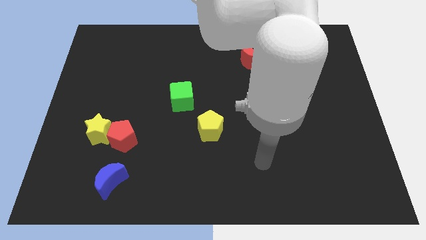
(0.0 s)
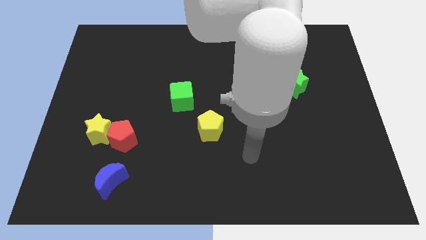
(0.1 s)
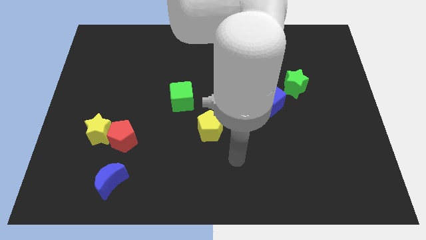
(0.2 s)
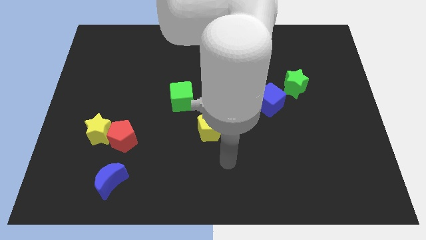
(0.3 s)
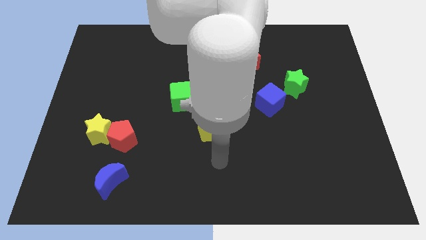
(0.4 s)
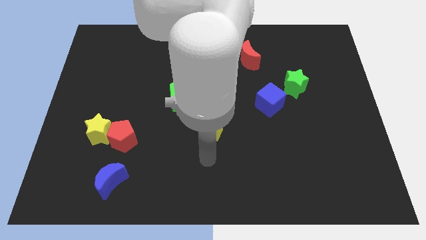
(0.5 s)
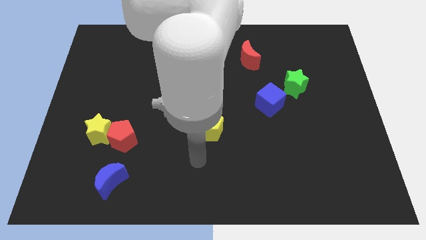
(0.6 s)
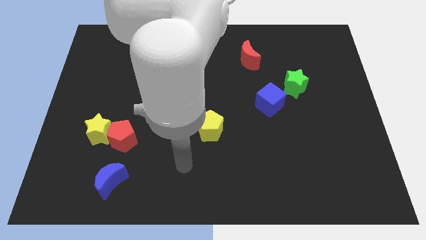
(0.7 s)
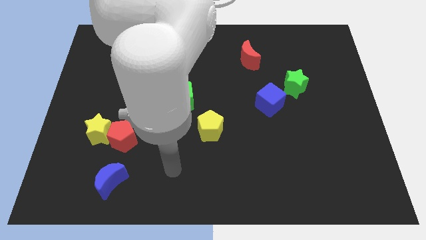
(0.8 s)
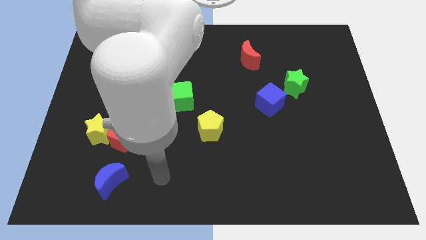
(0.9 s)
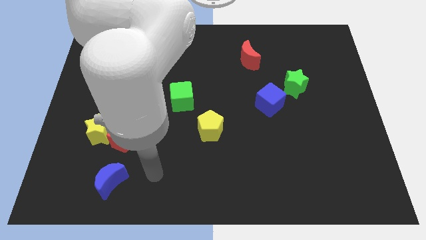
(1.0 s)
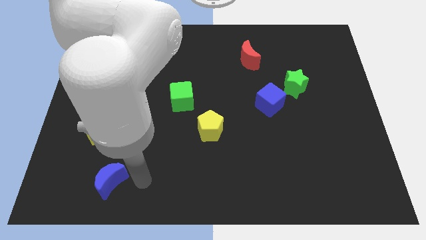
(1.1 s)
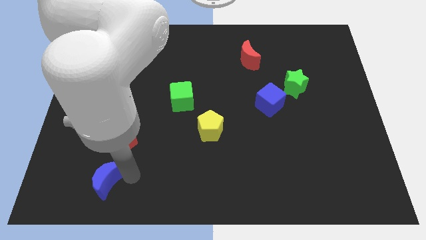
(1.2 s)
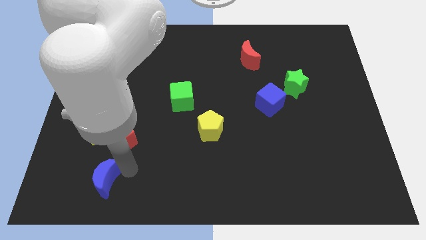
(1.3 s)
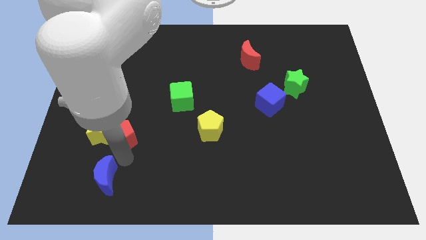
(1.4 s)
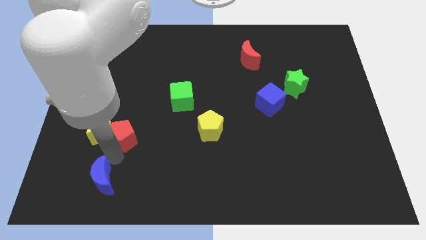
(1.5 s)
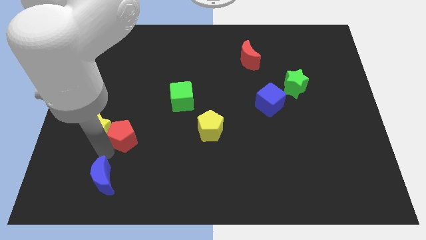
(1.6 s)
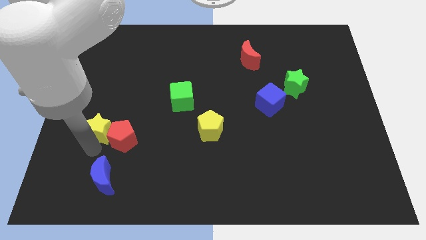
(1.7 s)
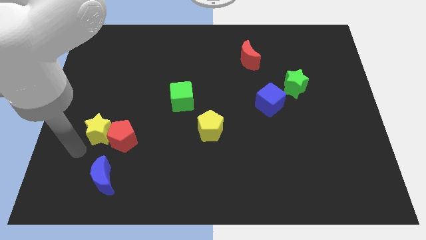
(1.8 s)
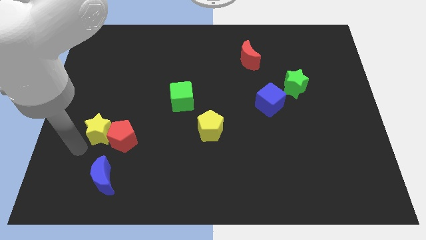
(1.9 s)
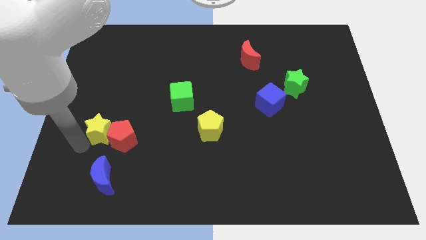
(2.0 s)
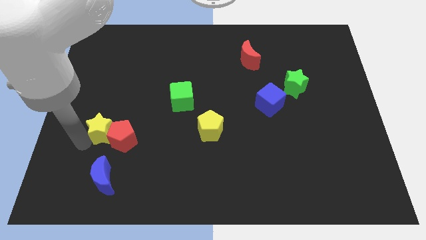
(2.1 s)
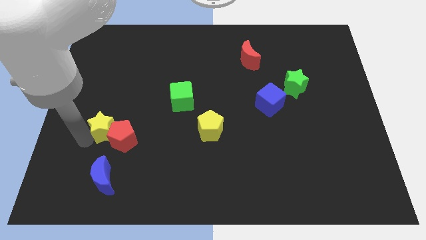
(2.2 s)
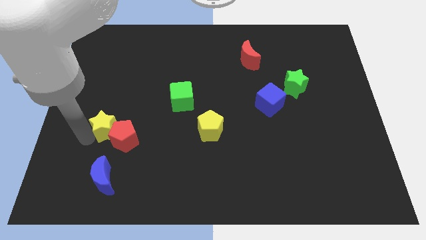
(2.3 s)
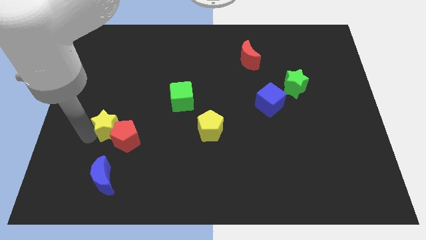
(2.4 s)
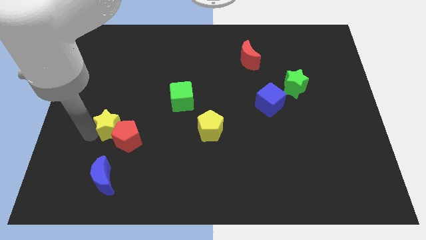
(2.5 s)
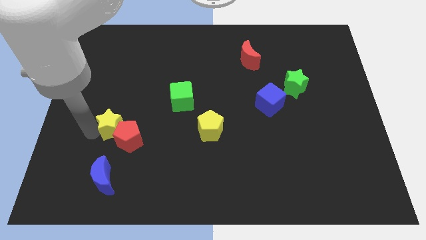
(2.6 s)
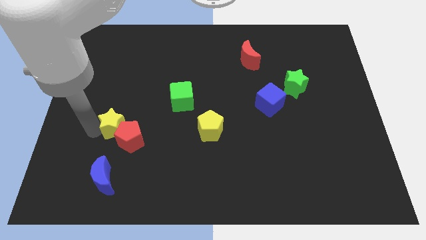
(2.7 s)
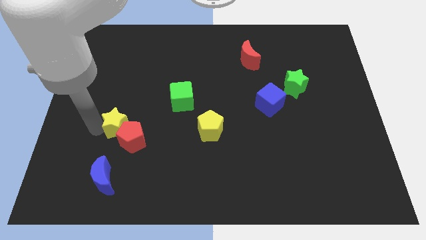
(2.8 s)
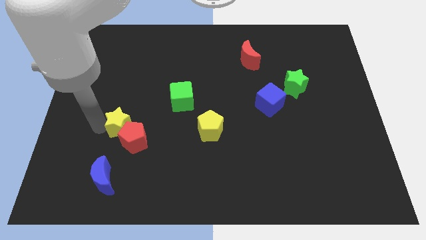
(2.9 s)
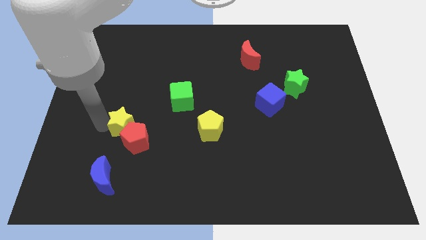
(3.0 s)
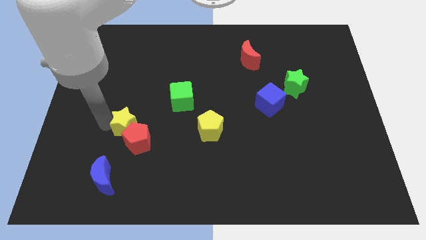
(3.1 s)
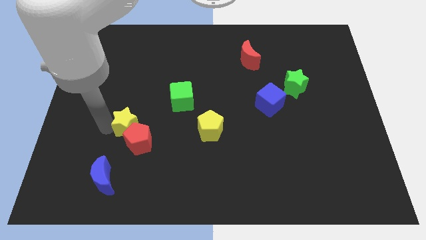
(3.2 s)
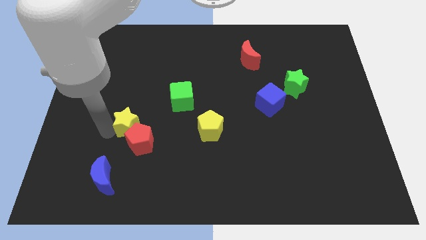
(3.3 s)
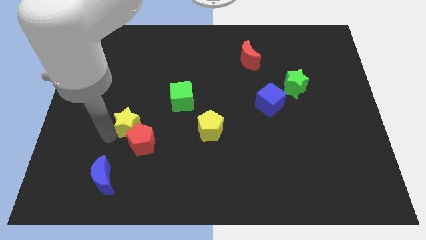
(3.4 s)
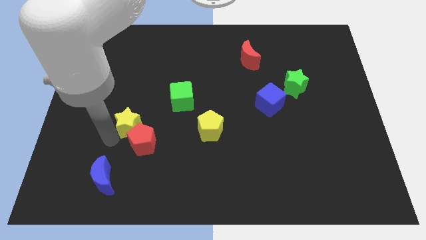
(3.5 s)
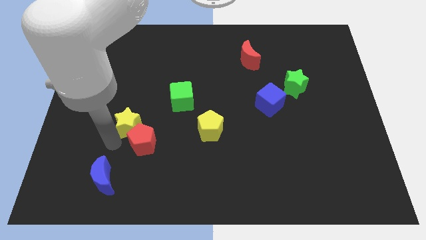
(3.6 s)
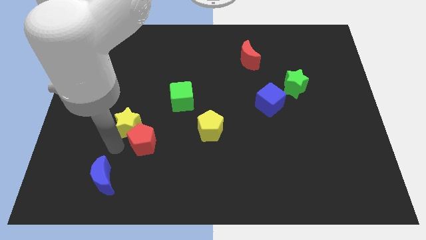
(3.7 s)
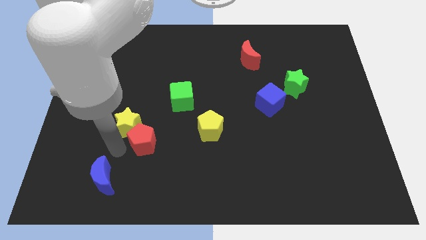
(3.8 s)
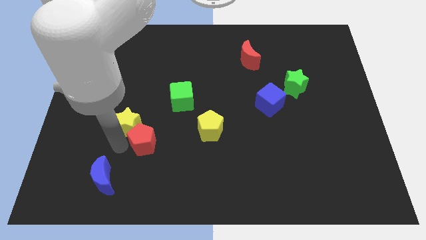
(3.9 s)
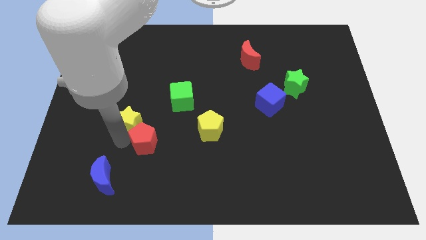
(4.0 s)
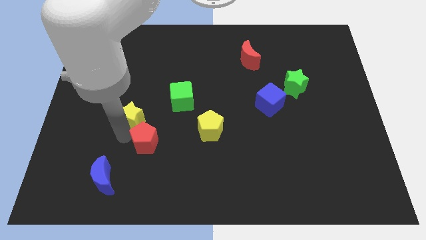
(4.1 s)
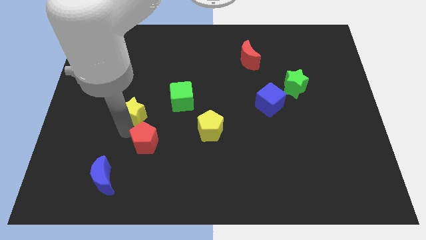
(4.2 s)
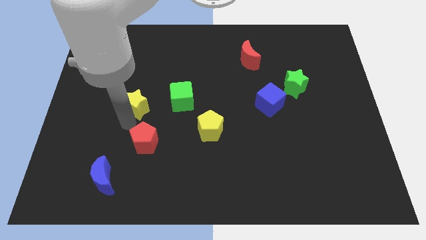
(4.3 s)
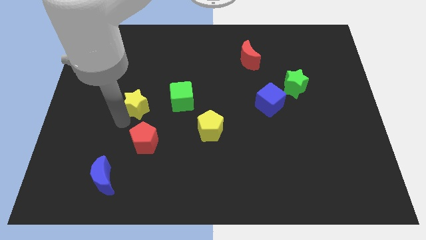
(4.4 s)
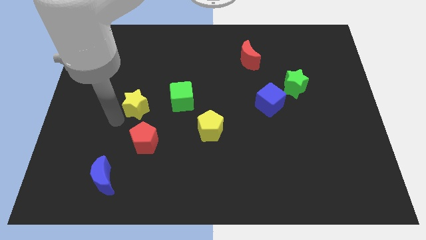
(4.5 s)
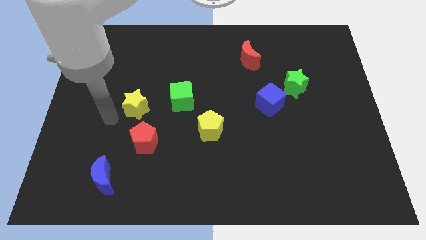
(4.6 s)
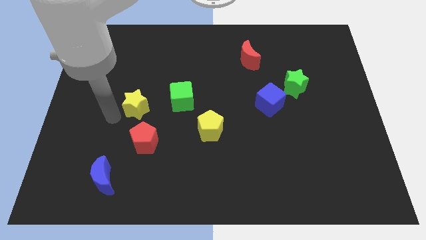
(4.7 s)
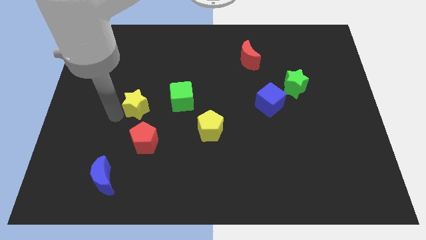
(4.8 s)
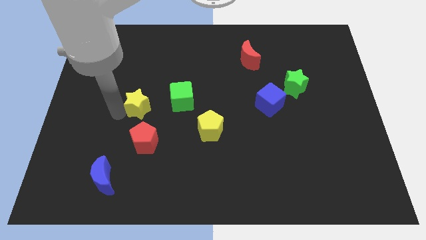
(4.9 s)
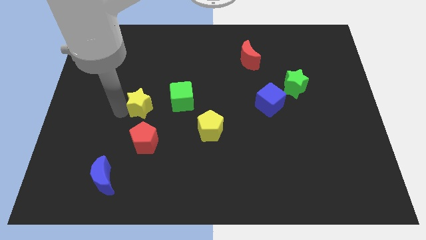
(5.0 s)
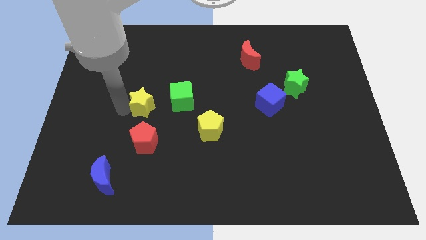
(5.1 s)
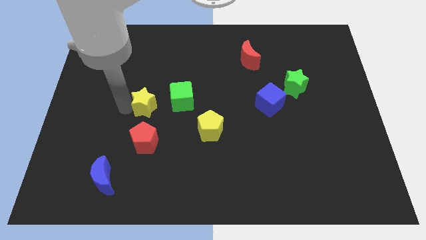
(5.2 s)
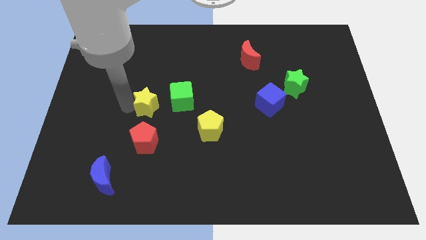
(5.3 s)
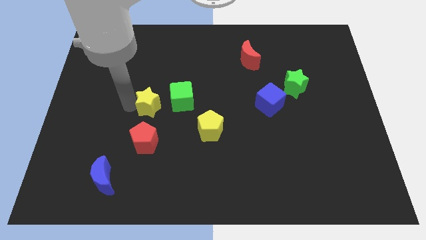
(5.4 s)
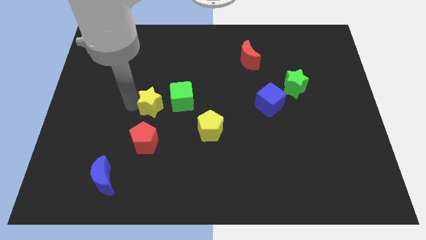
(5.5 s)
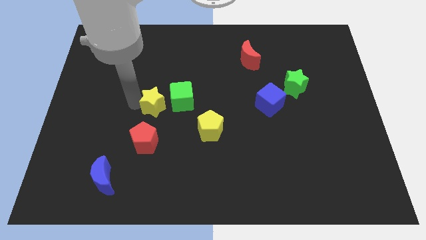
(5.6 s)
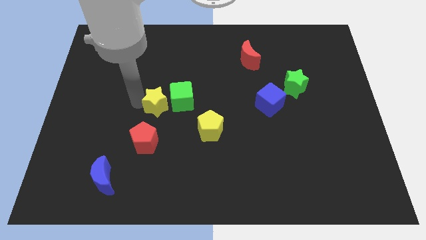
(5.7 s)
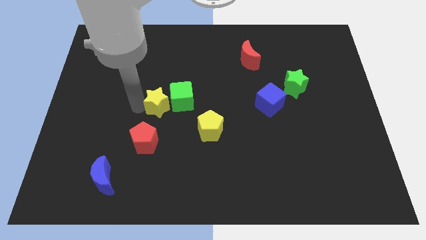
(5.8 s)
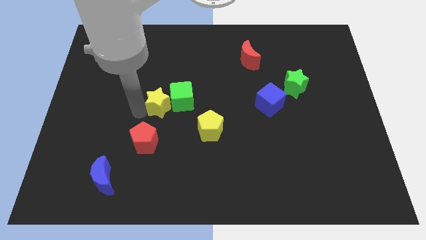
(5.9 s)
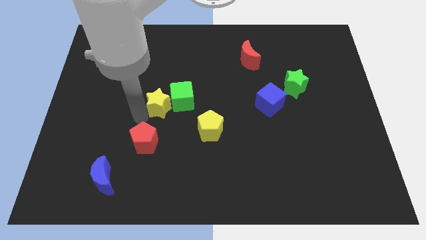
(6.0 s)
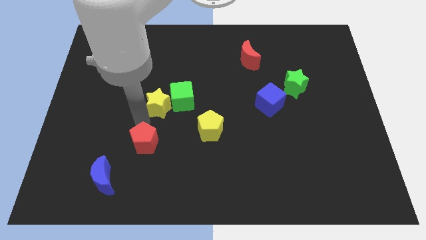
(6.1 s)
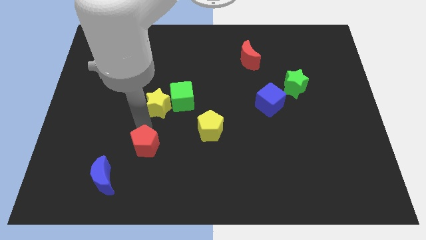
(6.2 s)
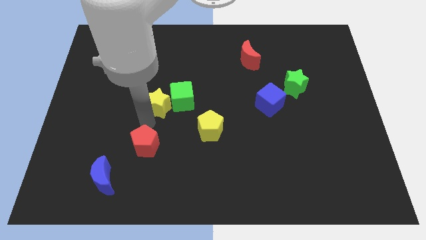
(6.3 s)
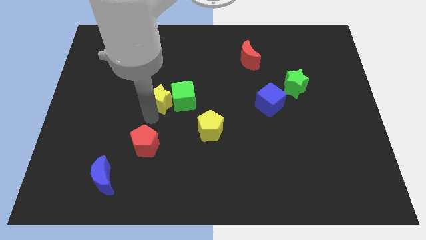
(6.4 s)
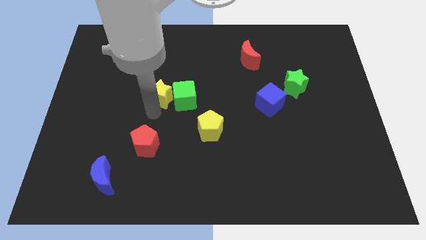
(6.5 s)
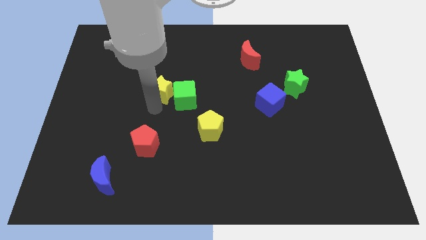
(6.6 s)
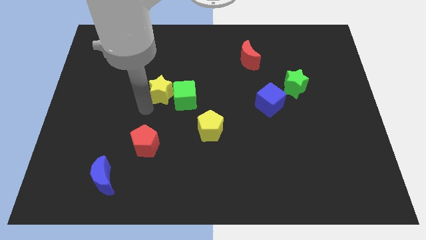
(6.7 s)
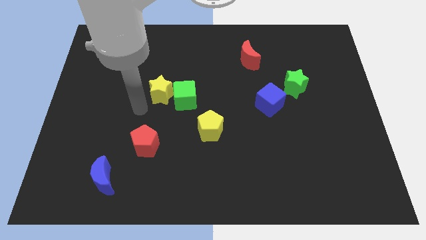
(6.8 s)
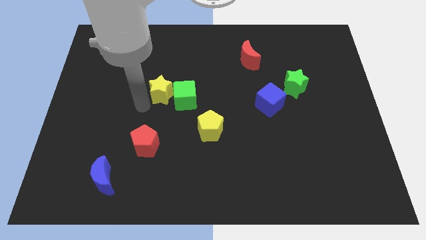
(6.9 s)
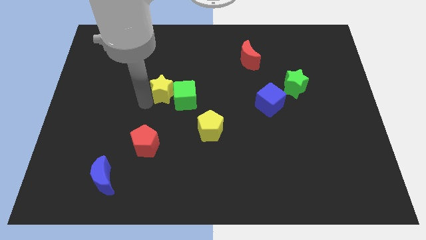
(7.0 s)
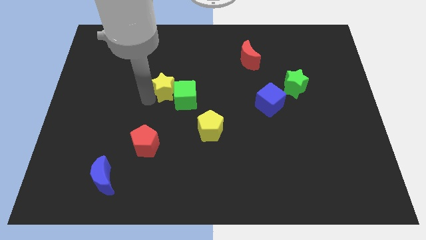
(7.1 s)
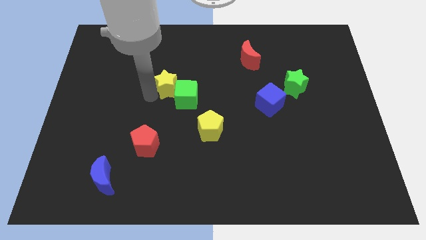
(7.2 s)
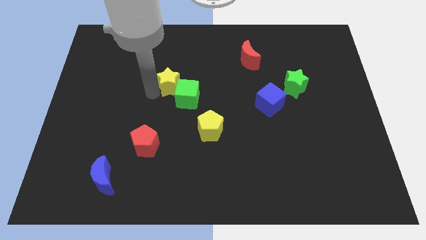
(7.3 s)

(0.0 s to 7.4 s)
push the yellow star up and right

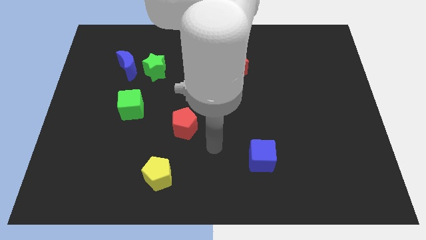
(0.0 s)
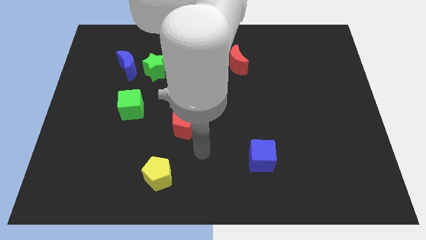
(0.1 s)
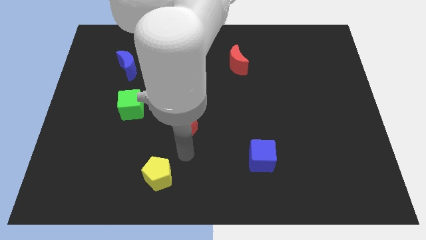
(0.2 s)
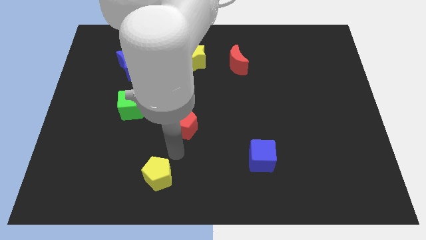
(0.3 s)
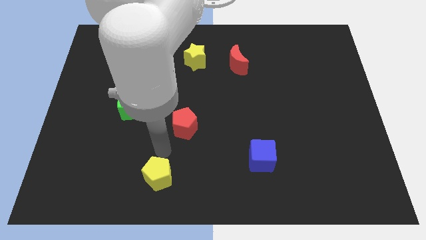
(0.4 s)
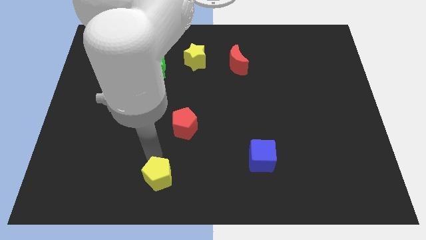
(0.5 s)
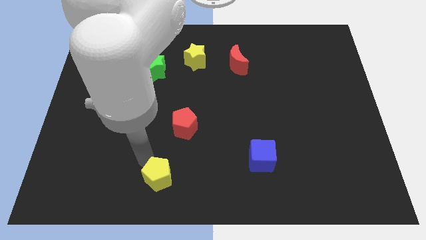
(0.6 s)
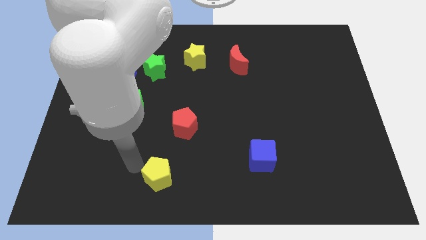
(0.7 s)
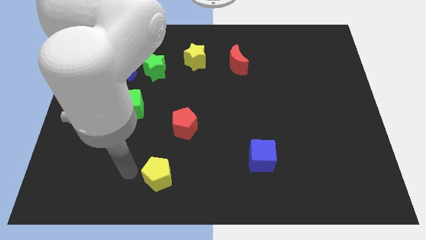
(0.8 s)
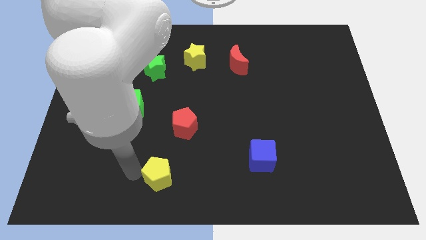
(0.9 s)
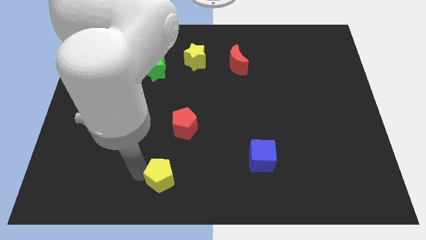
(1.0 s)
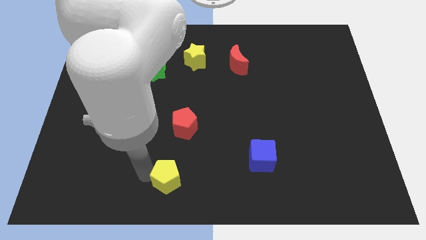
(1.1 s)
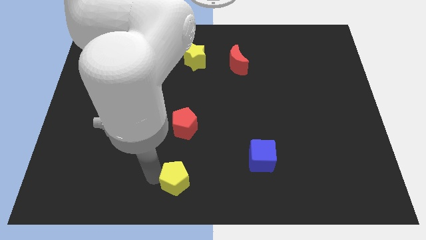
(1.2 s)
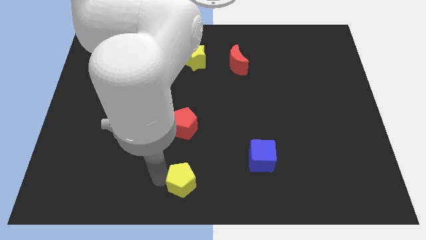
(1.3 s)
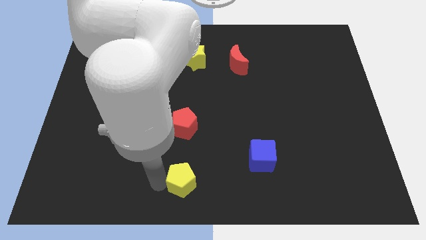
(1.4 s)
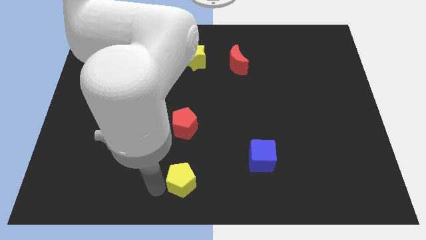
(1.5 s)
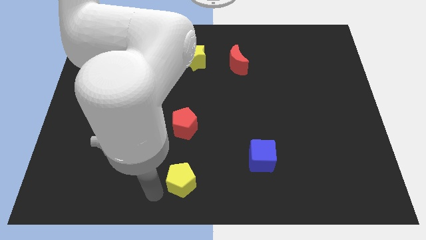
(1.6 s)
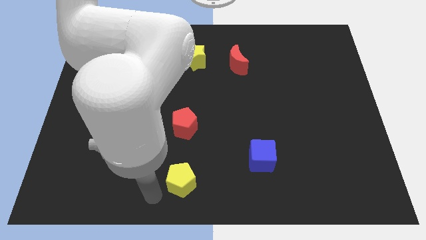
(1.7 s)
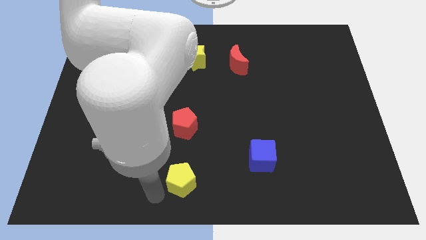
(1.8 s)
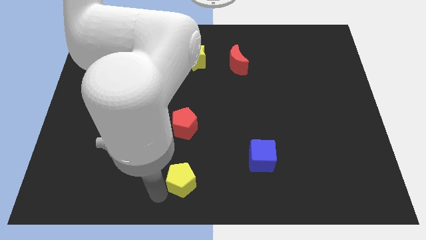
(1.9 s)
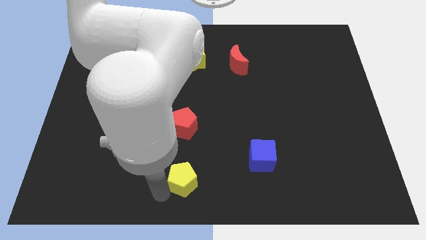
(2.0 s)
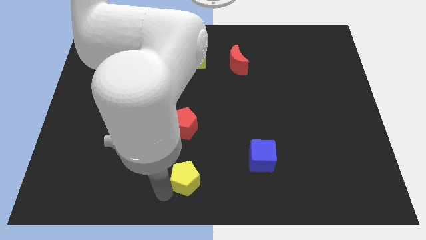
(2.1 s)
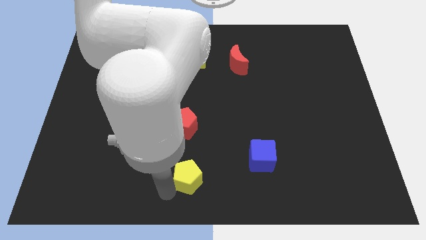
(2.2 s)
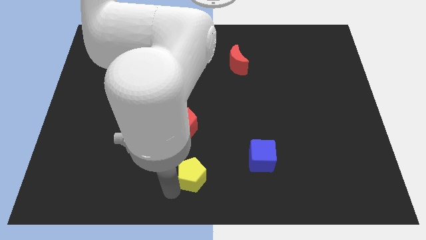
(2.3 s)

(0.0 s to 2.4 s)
slide the yellow pentagon somewhat right
